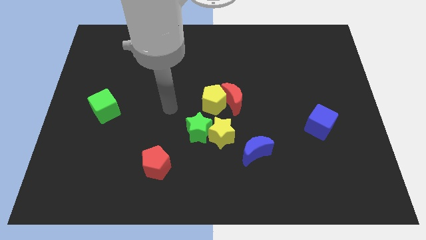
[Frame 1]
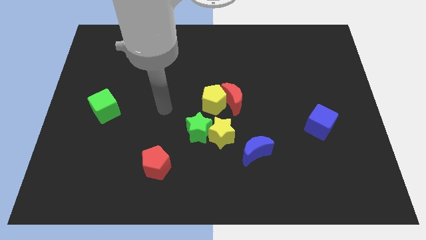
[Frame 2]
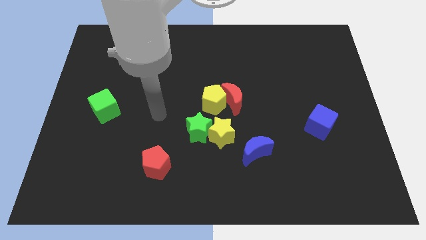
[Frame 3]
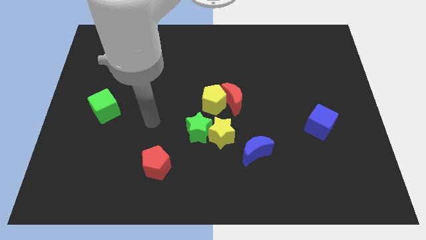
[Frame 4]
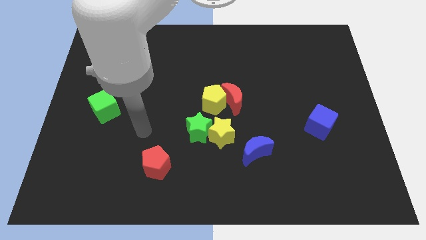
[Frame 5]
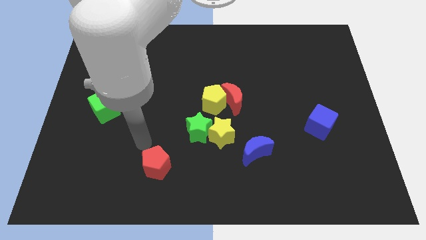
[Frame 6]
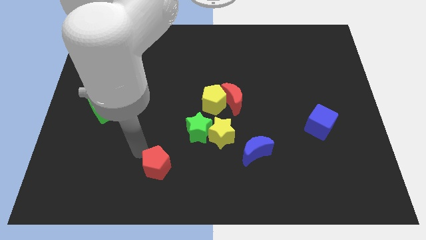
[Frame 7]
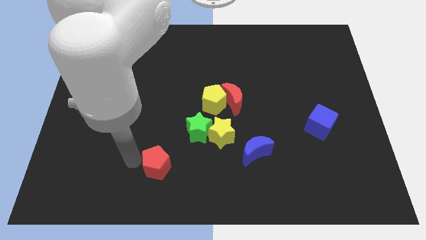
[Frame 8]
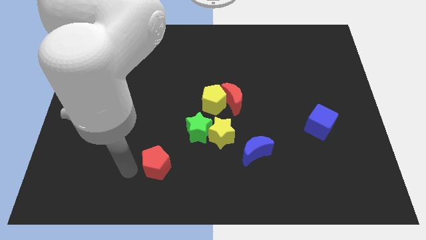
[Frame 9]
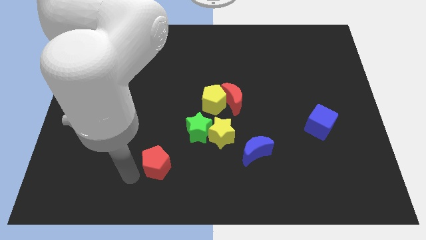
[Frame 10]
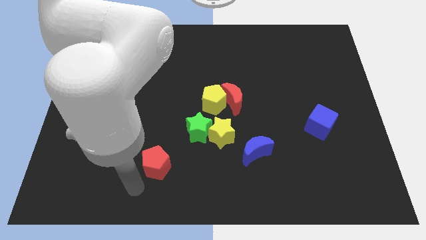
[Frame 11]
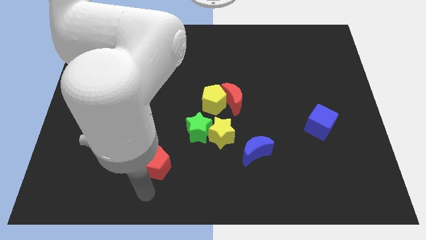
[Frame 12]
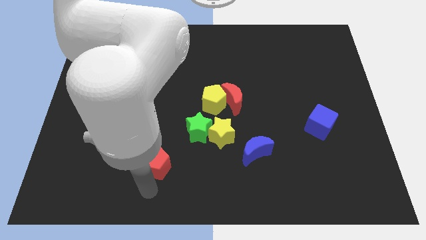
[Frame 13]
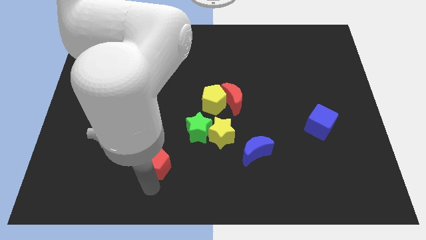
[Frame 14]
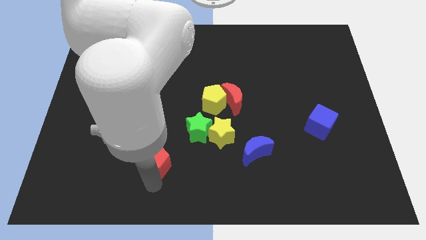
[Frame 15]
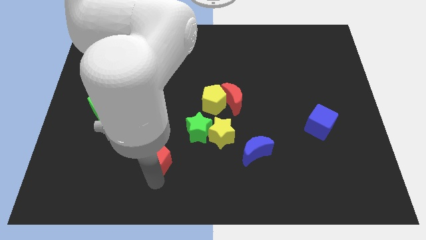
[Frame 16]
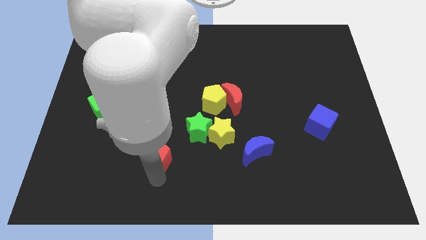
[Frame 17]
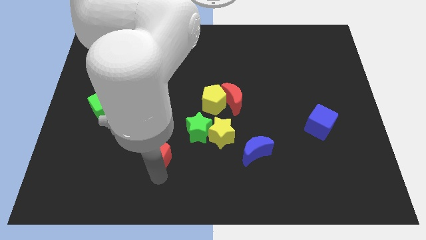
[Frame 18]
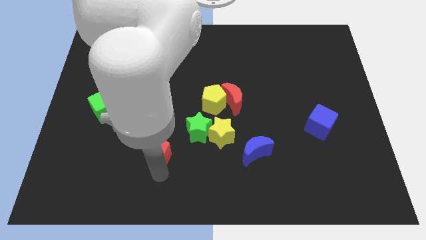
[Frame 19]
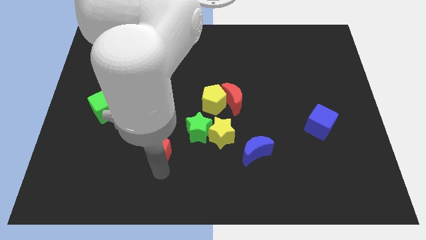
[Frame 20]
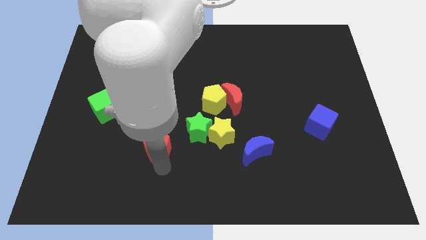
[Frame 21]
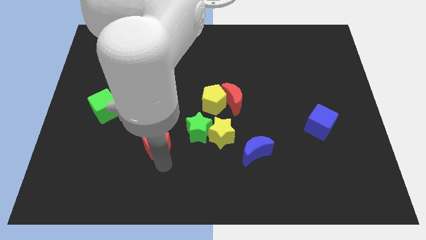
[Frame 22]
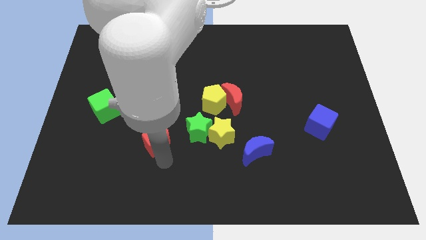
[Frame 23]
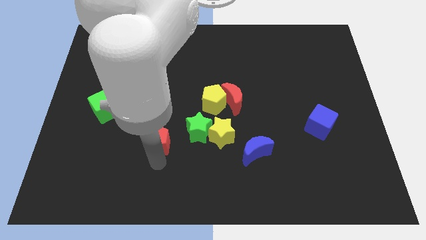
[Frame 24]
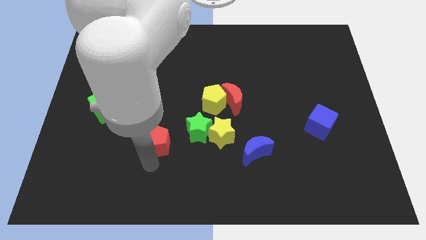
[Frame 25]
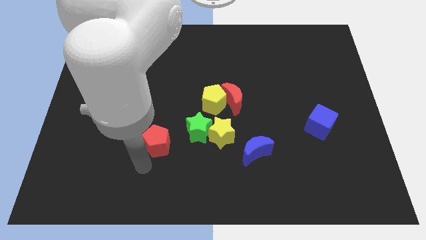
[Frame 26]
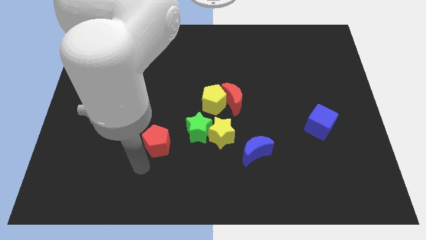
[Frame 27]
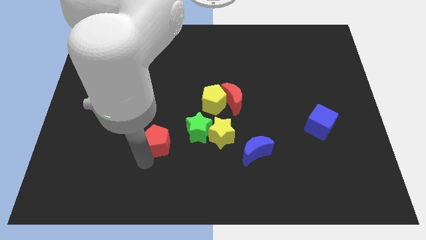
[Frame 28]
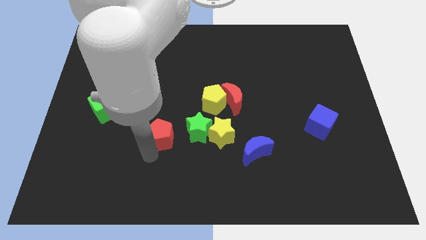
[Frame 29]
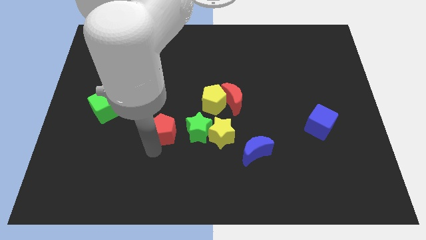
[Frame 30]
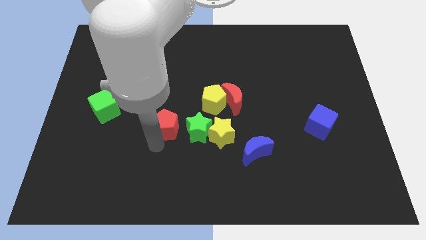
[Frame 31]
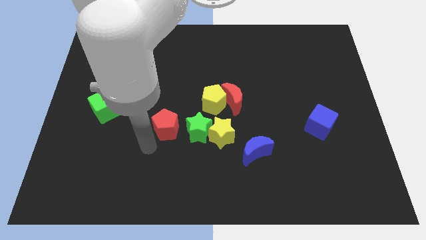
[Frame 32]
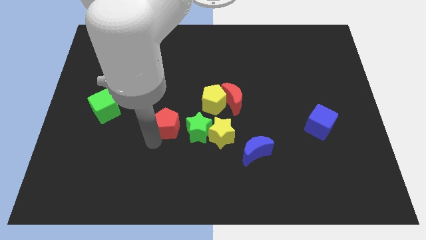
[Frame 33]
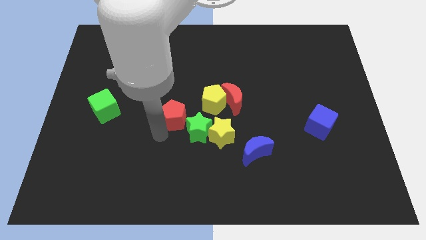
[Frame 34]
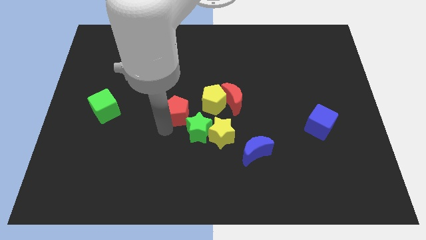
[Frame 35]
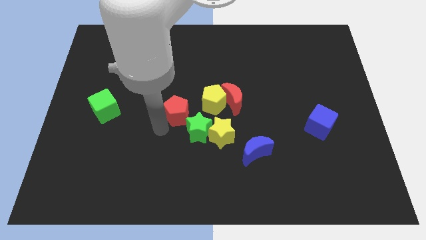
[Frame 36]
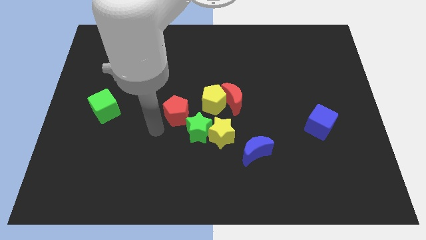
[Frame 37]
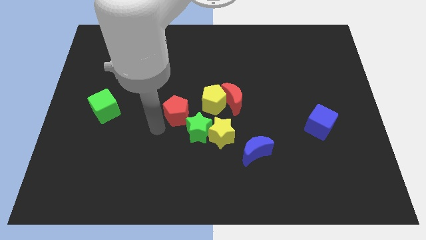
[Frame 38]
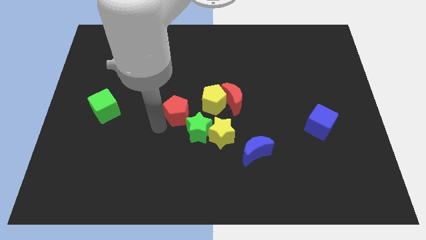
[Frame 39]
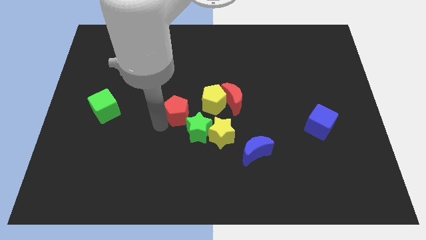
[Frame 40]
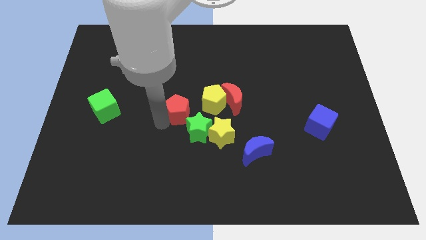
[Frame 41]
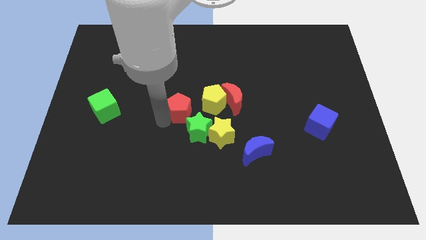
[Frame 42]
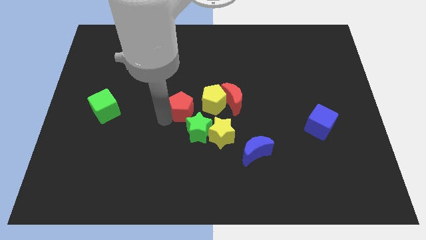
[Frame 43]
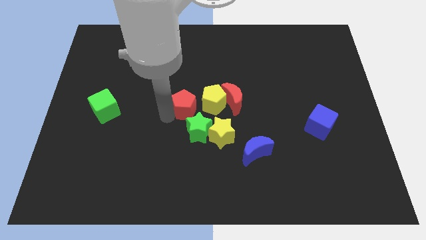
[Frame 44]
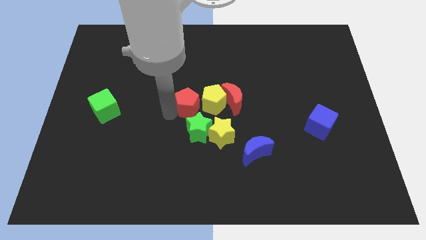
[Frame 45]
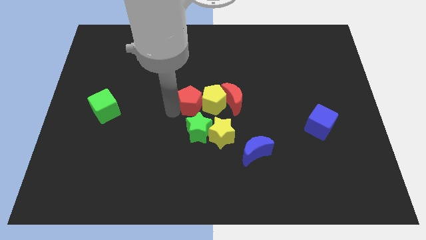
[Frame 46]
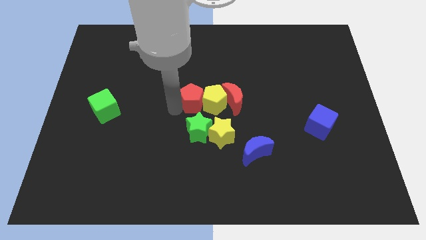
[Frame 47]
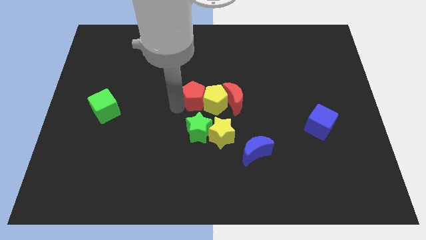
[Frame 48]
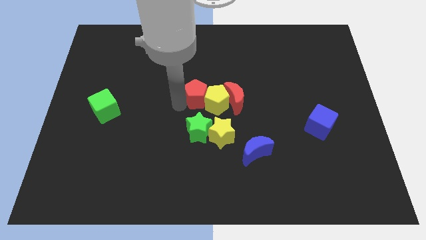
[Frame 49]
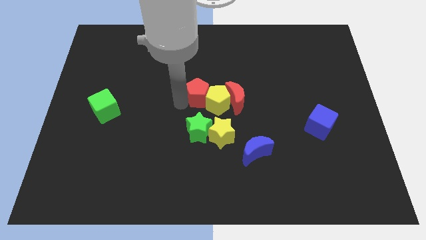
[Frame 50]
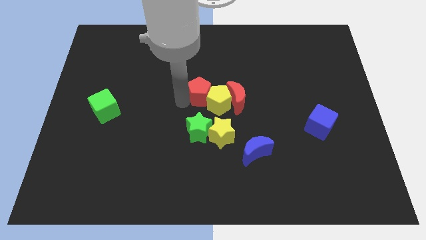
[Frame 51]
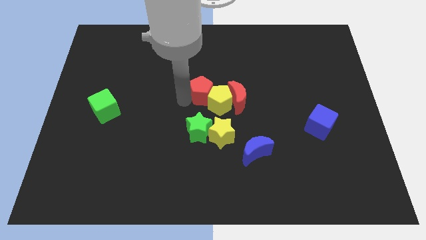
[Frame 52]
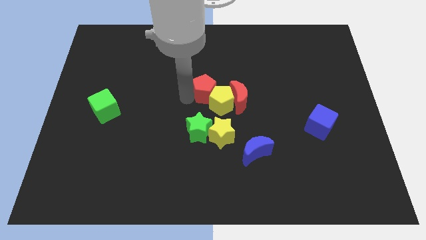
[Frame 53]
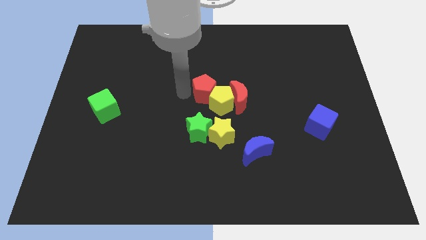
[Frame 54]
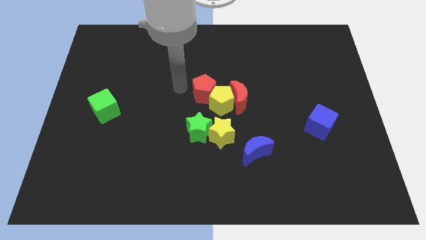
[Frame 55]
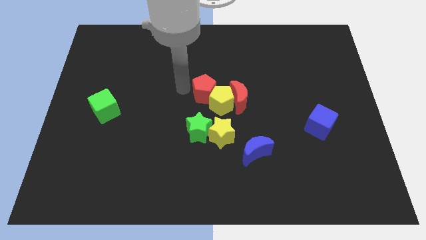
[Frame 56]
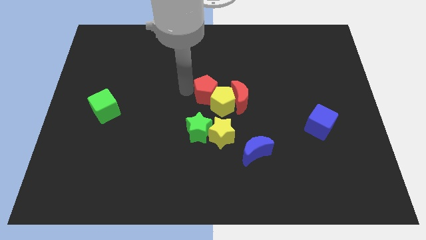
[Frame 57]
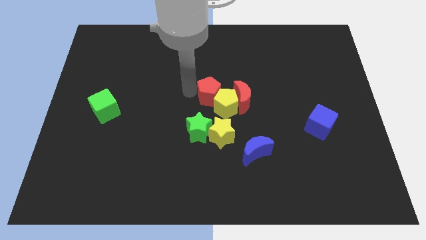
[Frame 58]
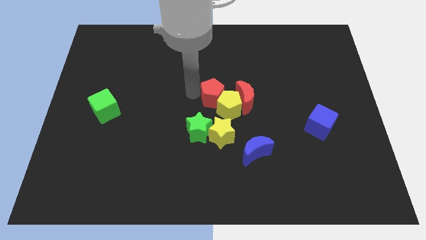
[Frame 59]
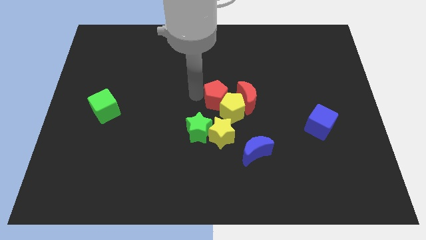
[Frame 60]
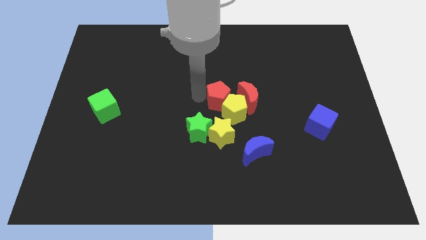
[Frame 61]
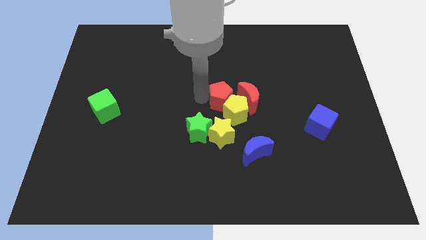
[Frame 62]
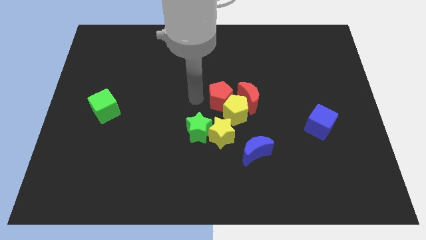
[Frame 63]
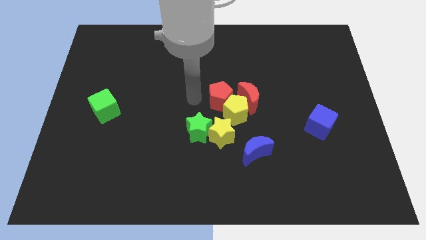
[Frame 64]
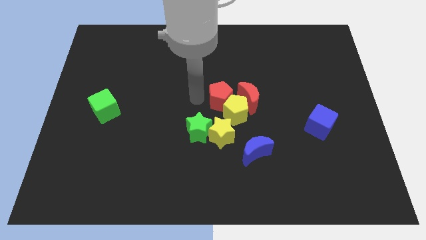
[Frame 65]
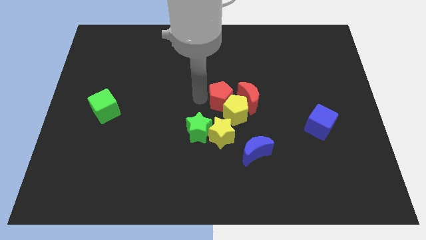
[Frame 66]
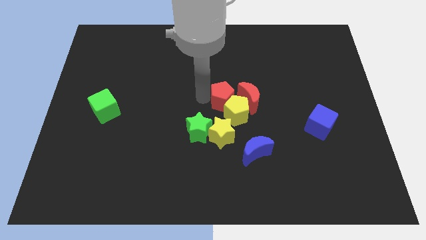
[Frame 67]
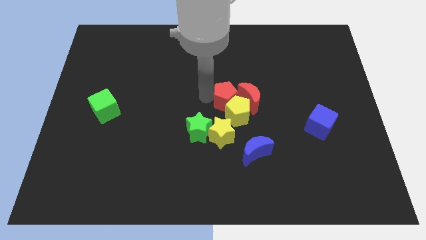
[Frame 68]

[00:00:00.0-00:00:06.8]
slide the red pentagon towards the red moon

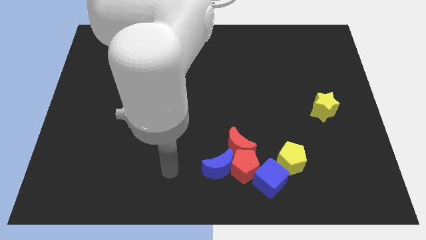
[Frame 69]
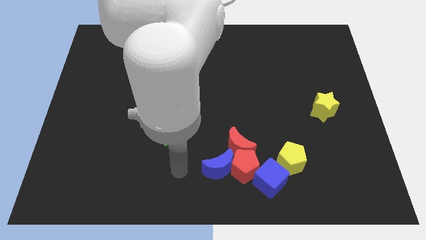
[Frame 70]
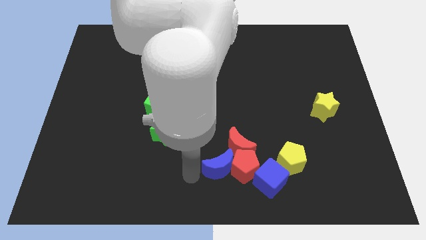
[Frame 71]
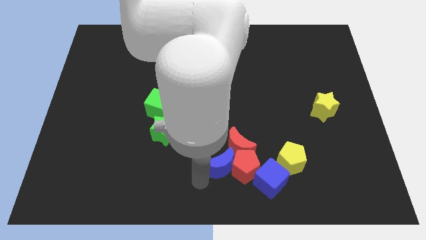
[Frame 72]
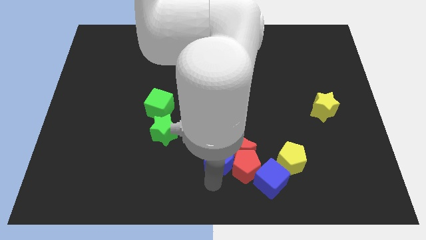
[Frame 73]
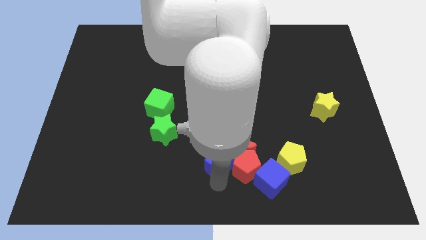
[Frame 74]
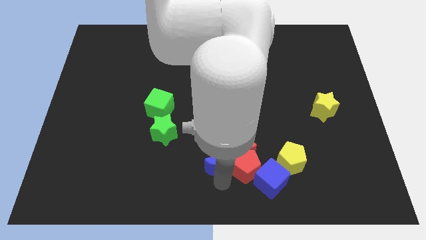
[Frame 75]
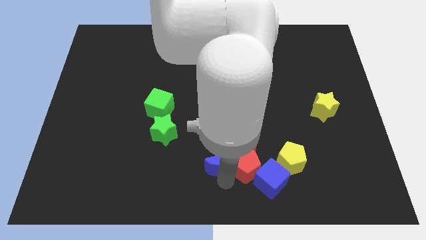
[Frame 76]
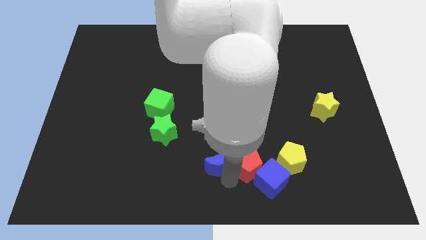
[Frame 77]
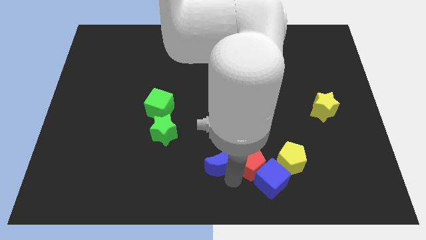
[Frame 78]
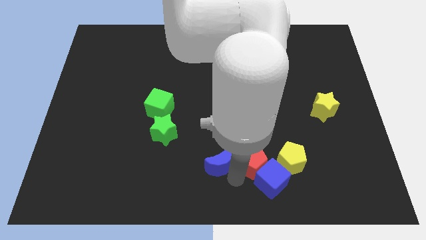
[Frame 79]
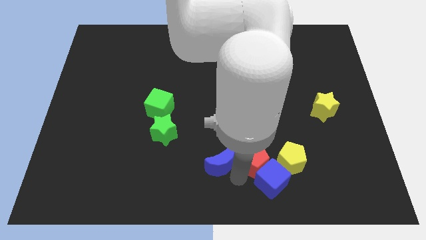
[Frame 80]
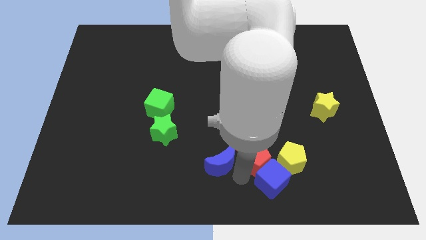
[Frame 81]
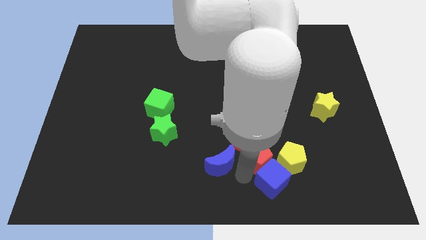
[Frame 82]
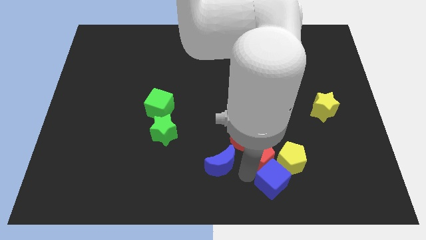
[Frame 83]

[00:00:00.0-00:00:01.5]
slide the red pentagon towards the yellow pentagon
